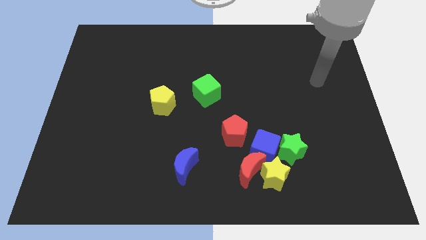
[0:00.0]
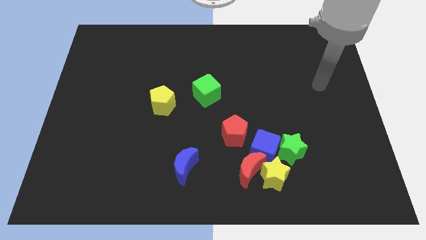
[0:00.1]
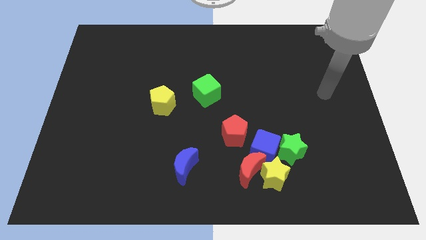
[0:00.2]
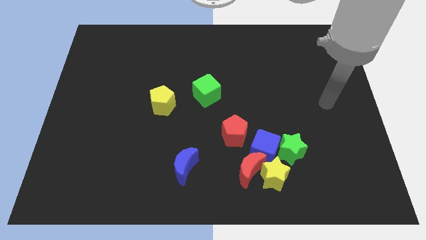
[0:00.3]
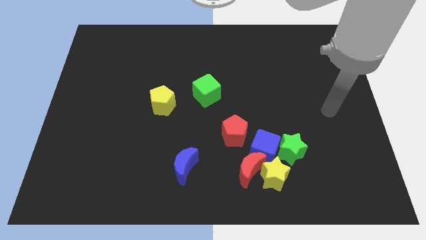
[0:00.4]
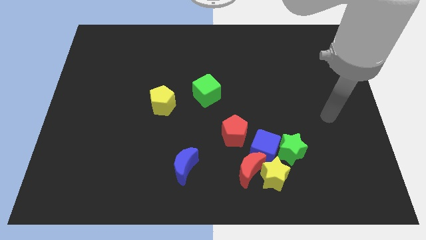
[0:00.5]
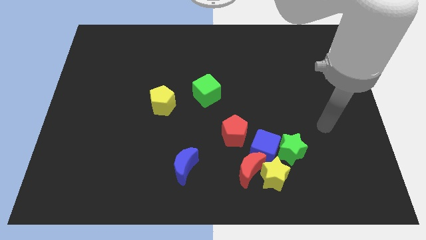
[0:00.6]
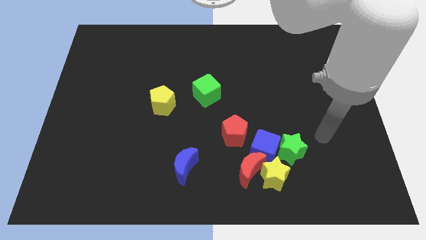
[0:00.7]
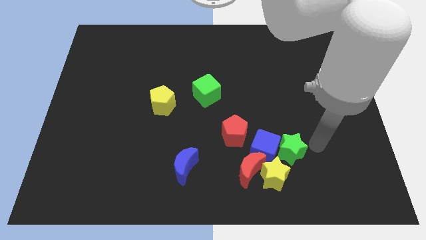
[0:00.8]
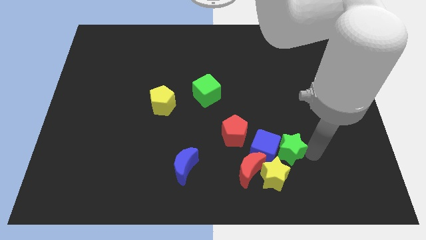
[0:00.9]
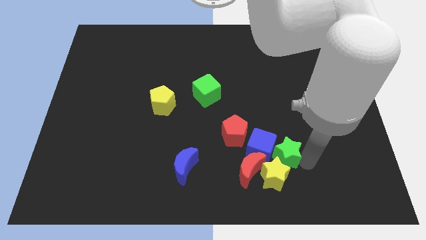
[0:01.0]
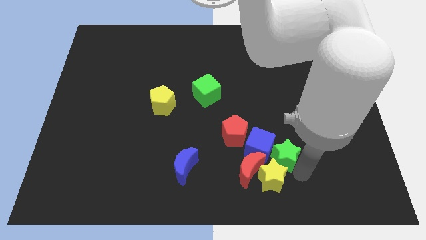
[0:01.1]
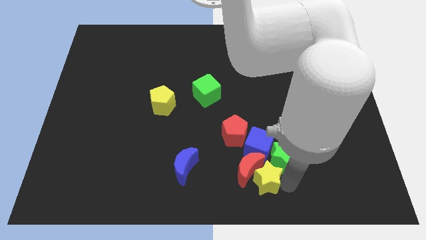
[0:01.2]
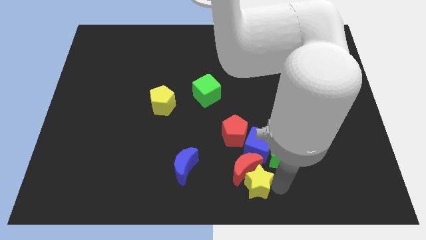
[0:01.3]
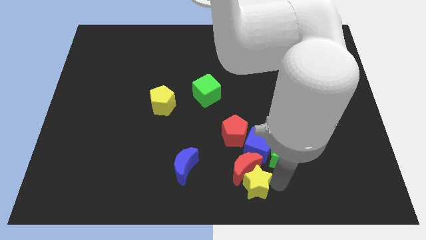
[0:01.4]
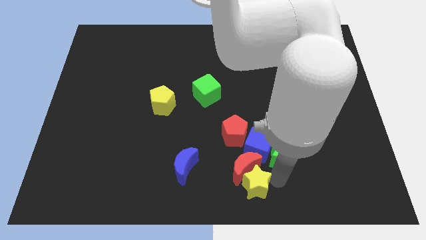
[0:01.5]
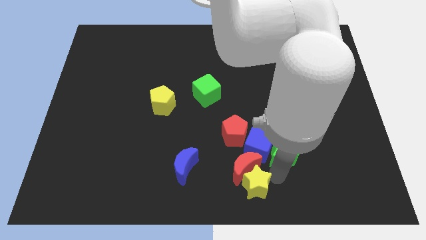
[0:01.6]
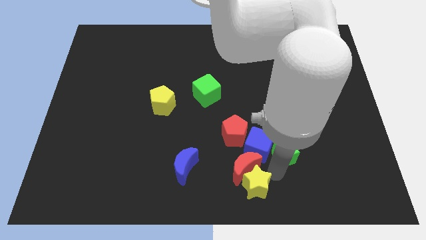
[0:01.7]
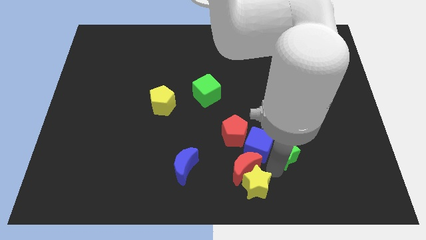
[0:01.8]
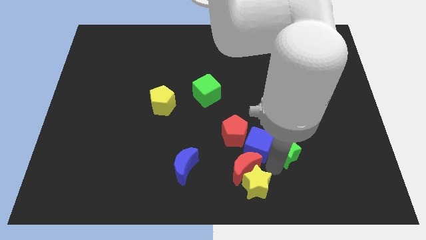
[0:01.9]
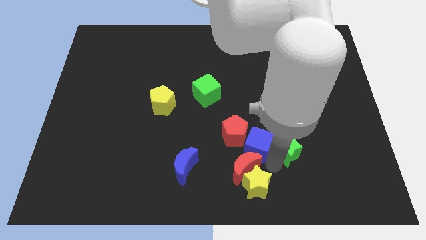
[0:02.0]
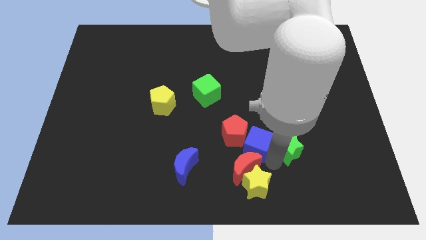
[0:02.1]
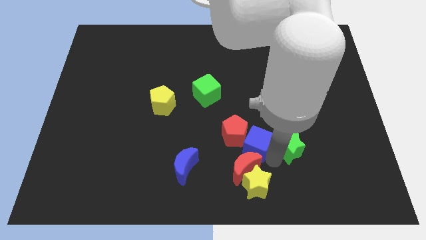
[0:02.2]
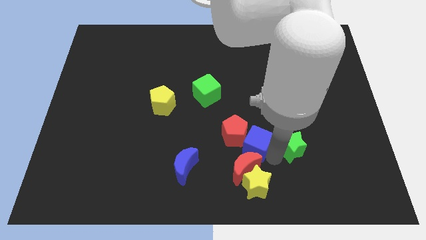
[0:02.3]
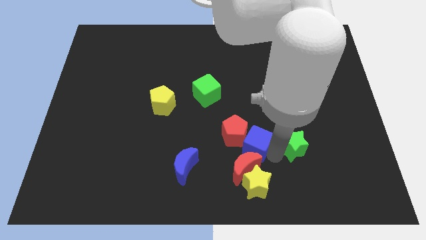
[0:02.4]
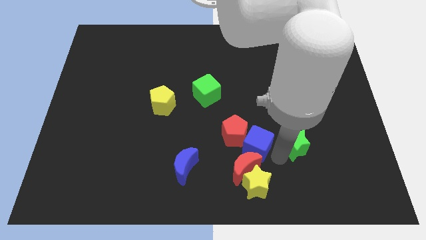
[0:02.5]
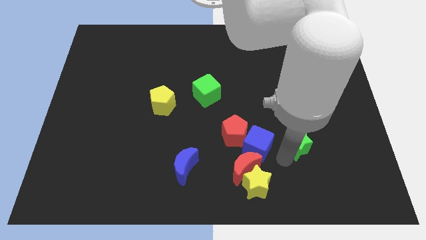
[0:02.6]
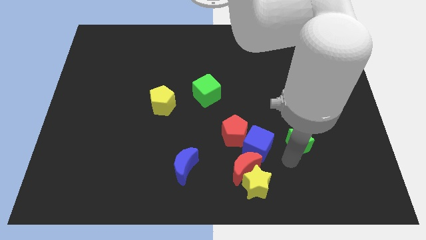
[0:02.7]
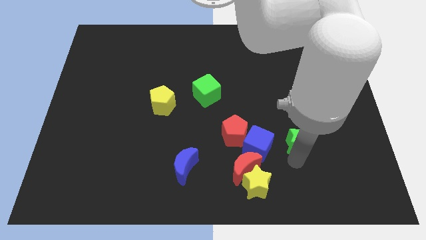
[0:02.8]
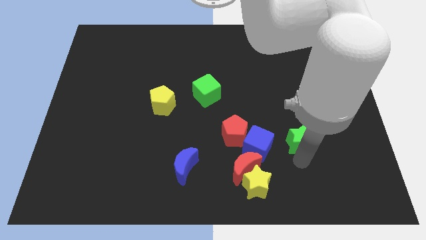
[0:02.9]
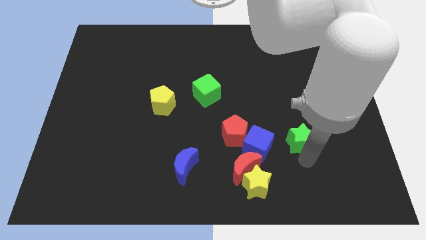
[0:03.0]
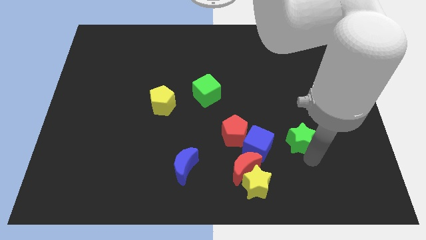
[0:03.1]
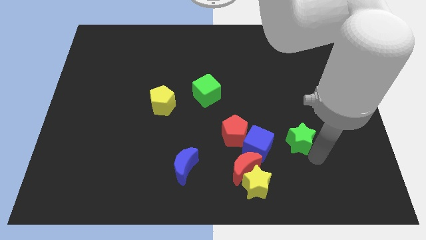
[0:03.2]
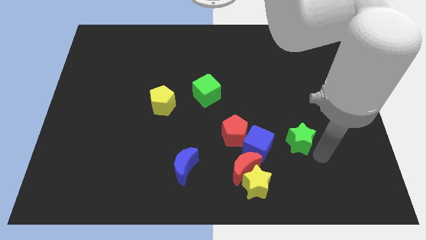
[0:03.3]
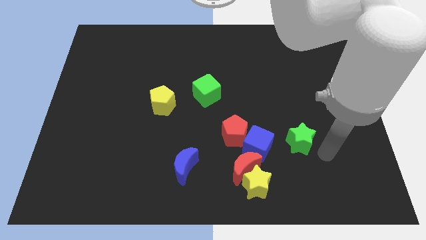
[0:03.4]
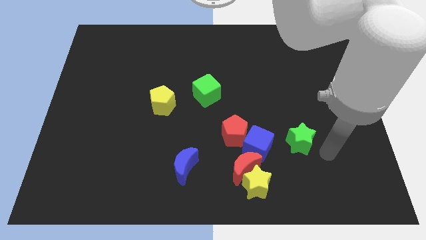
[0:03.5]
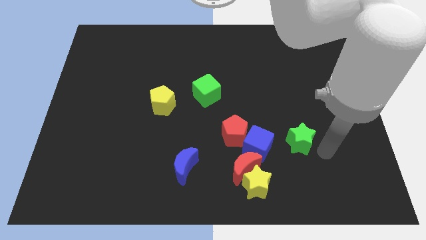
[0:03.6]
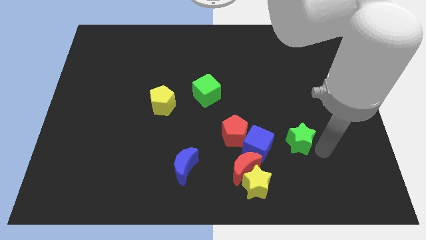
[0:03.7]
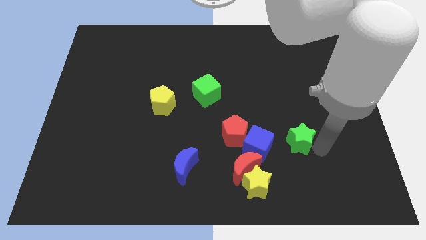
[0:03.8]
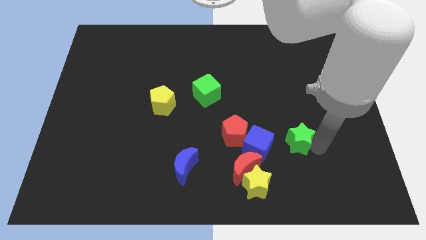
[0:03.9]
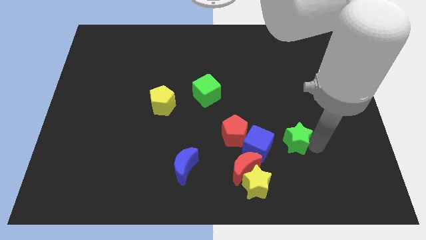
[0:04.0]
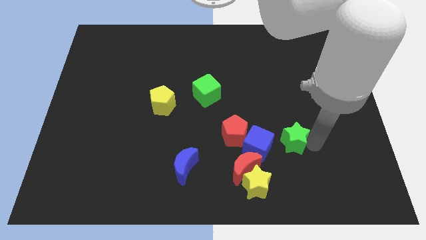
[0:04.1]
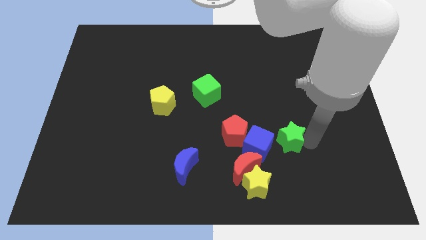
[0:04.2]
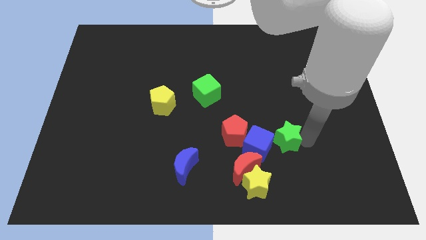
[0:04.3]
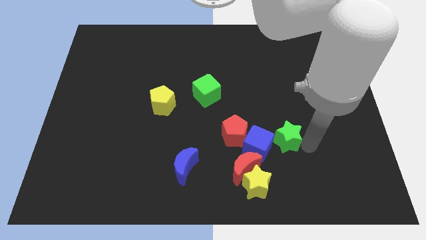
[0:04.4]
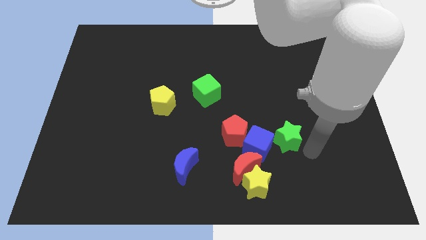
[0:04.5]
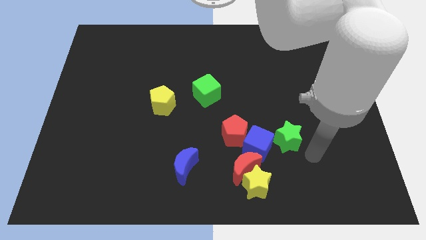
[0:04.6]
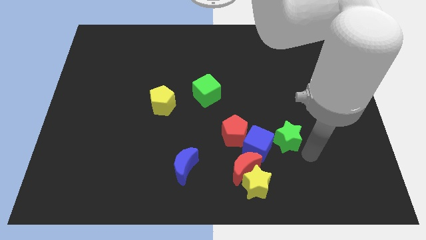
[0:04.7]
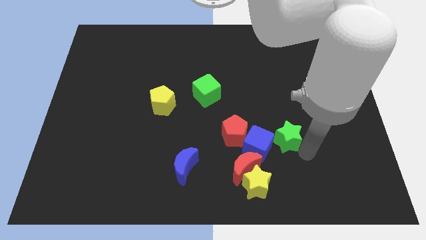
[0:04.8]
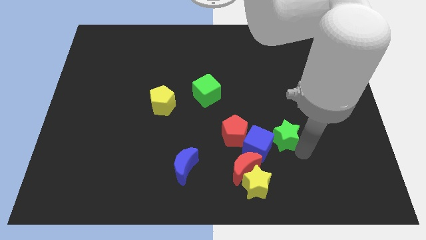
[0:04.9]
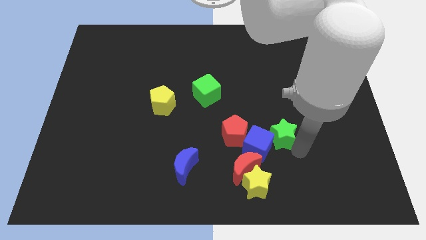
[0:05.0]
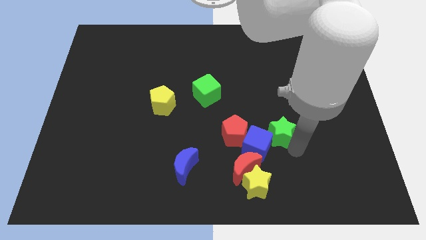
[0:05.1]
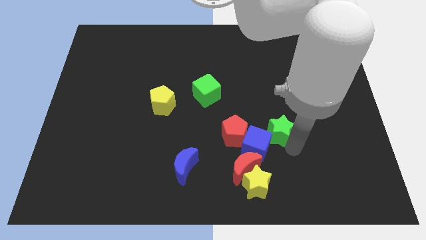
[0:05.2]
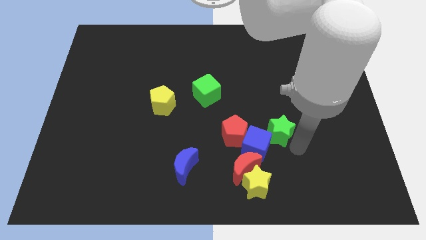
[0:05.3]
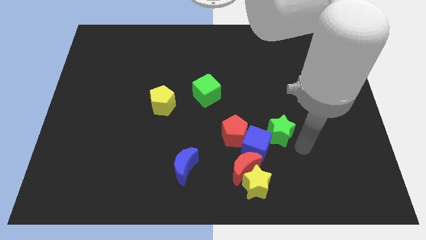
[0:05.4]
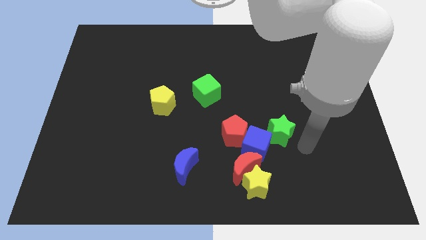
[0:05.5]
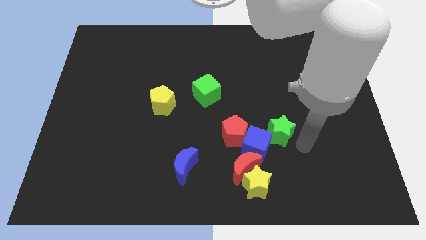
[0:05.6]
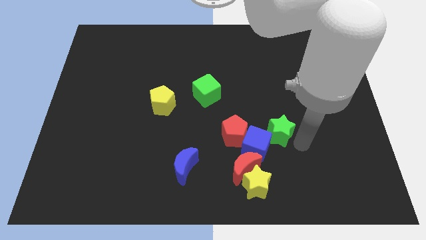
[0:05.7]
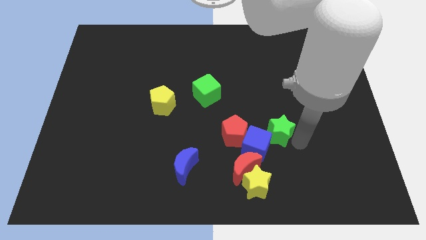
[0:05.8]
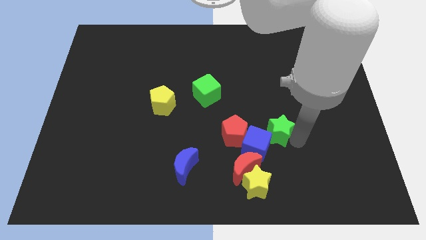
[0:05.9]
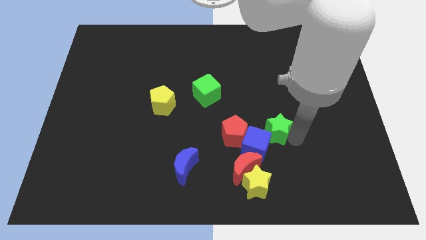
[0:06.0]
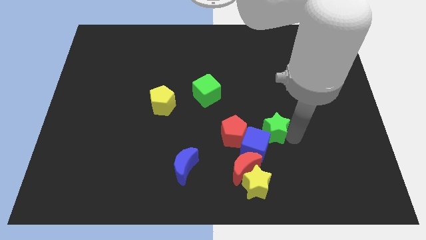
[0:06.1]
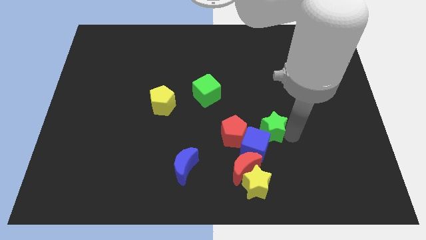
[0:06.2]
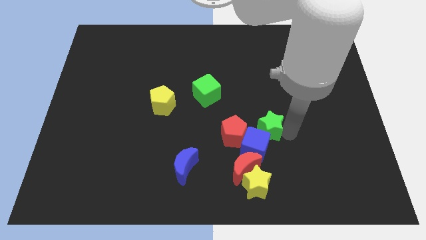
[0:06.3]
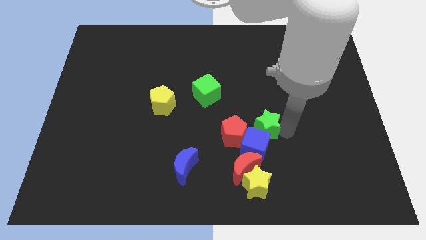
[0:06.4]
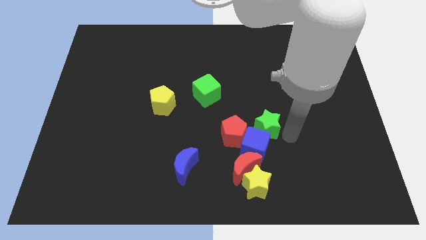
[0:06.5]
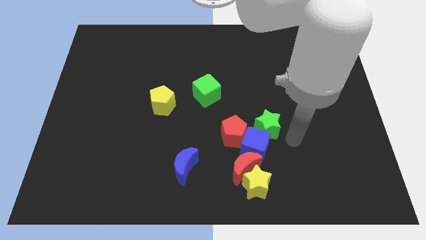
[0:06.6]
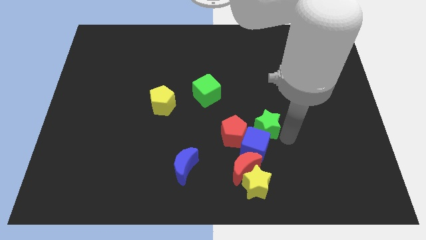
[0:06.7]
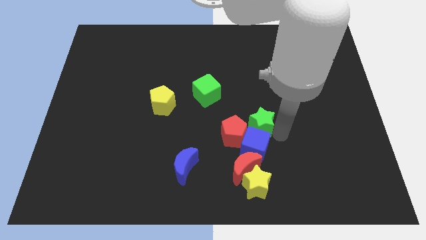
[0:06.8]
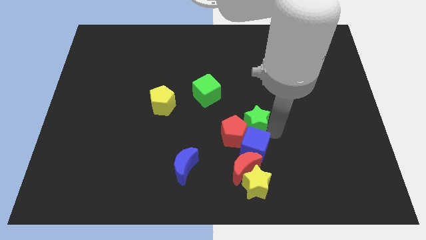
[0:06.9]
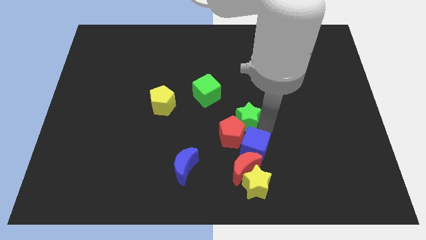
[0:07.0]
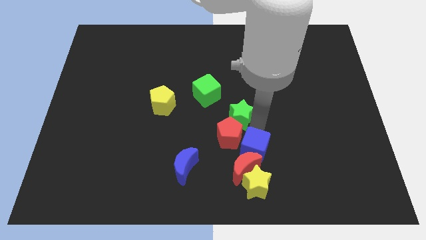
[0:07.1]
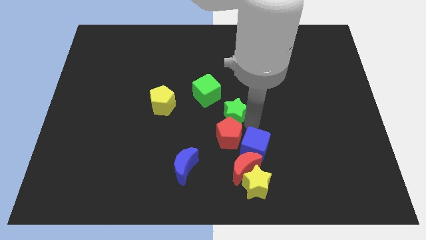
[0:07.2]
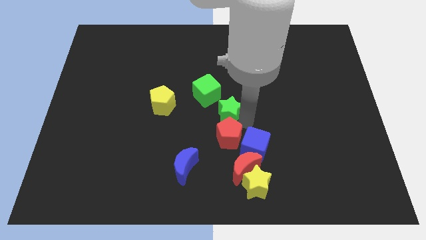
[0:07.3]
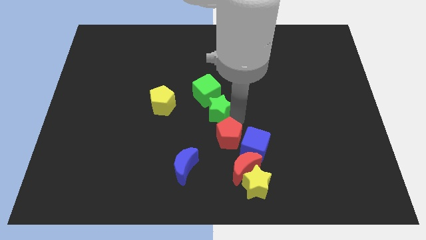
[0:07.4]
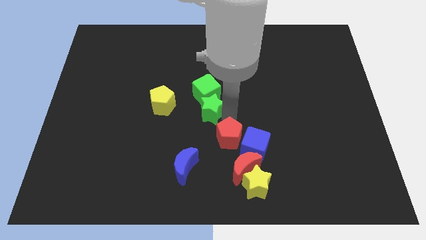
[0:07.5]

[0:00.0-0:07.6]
put the green star close to the green cube
